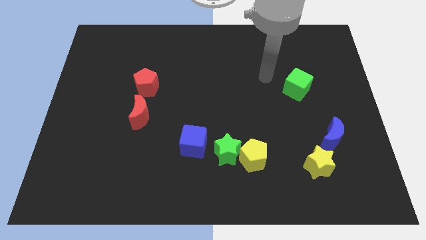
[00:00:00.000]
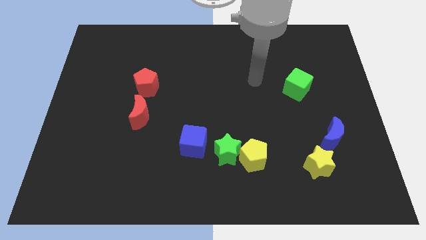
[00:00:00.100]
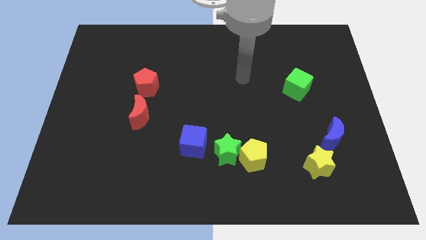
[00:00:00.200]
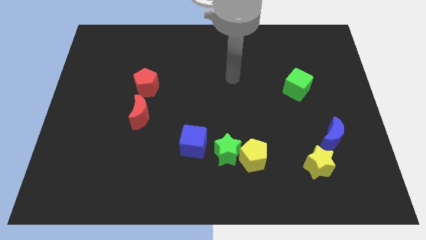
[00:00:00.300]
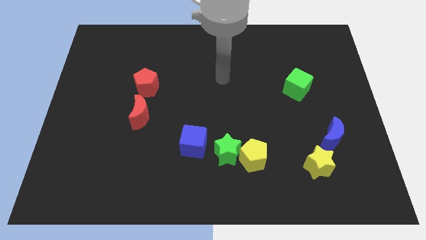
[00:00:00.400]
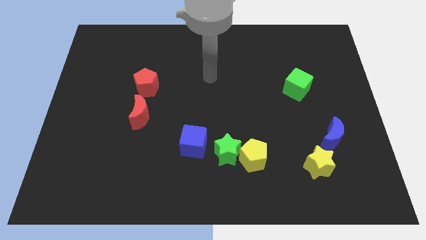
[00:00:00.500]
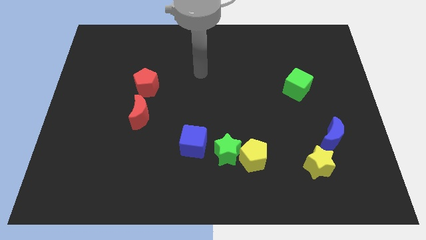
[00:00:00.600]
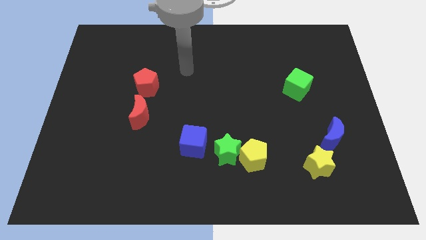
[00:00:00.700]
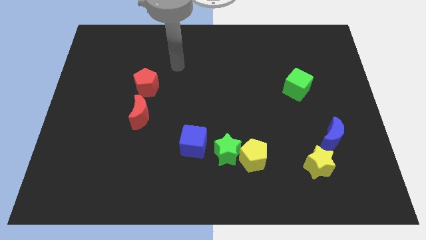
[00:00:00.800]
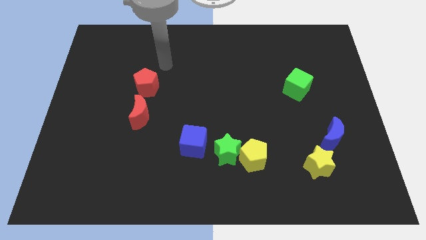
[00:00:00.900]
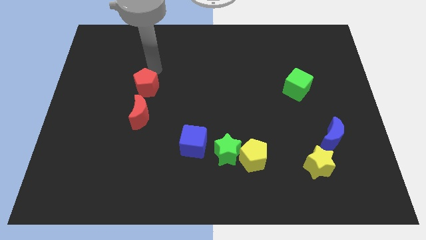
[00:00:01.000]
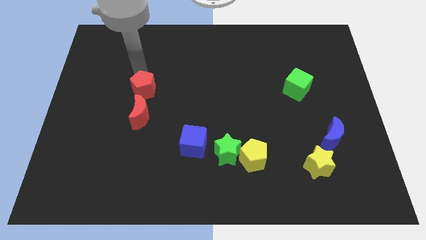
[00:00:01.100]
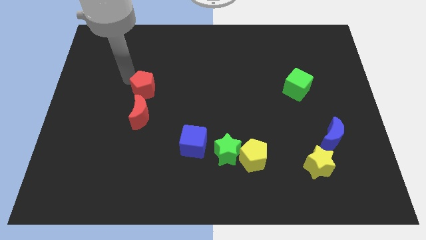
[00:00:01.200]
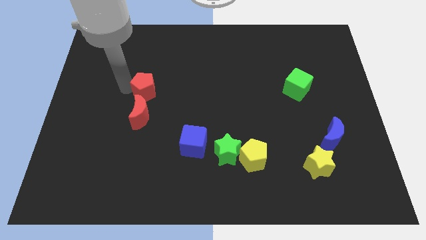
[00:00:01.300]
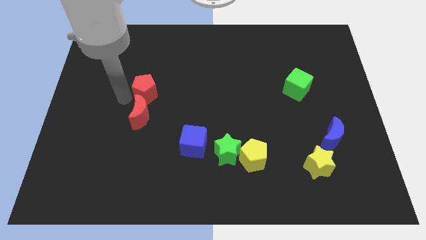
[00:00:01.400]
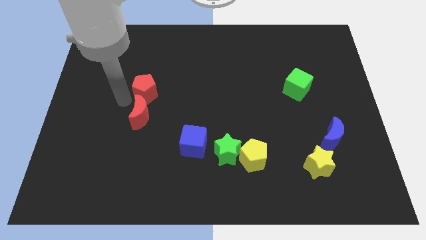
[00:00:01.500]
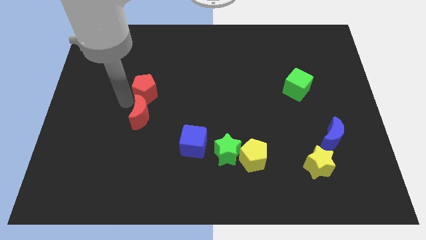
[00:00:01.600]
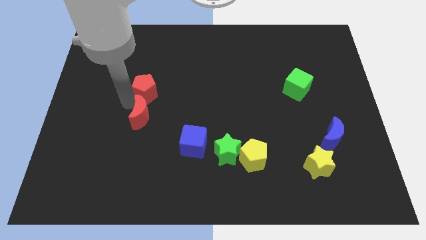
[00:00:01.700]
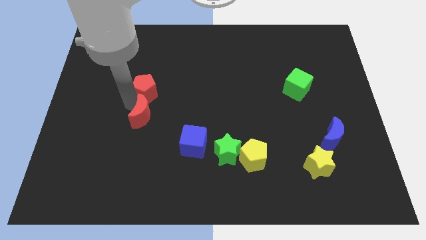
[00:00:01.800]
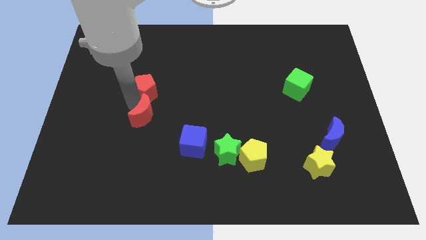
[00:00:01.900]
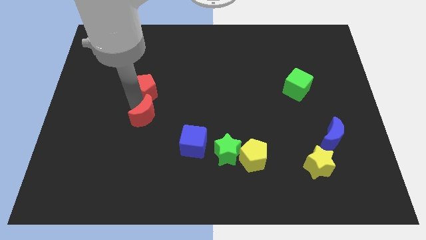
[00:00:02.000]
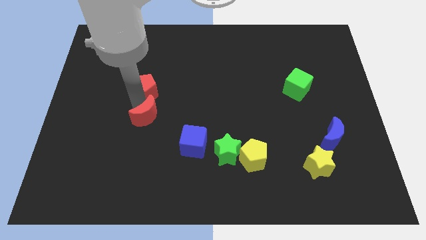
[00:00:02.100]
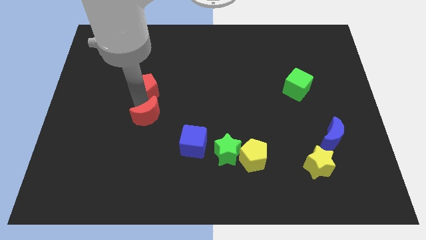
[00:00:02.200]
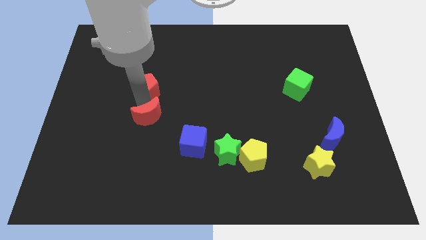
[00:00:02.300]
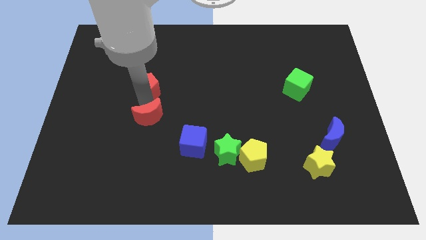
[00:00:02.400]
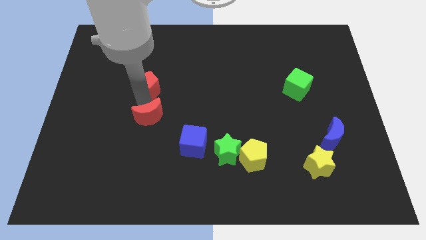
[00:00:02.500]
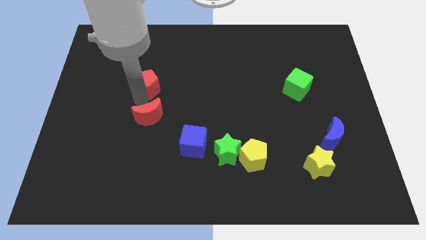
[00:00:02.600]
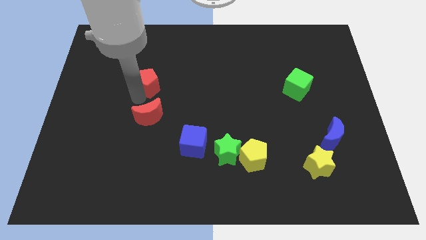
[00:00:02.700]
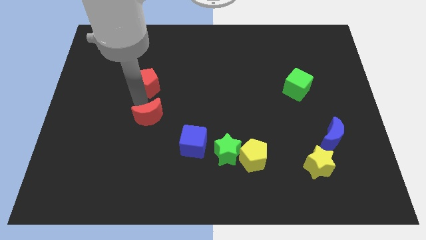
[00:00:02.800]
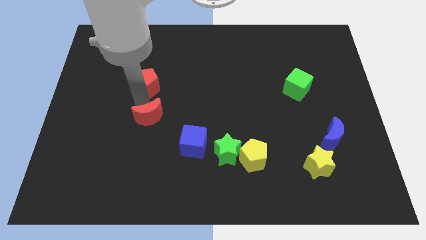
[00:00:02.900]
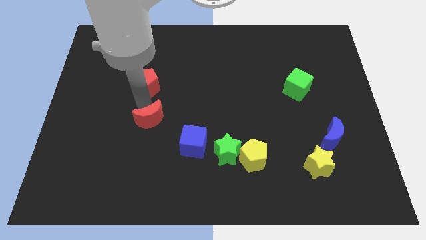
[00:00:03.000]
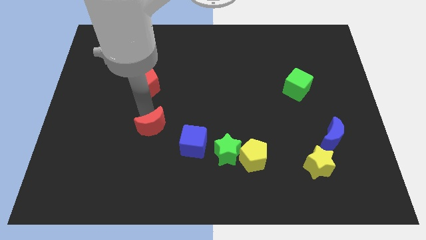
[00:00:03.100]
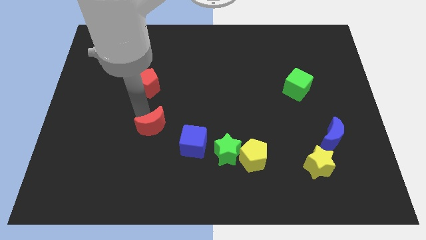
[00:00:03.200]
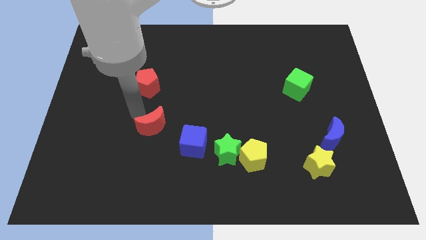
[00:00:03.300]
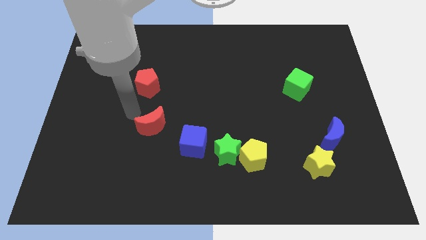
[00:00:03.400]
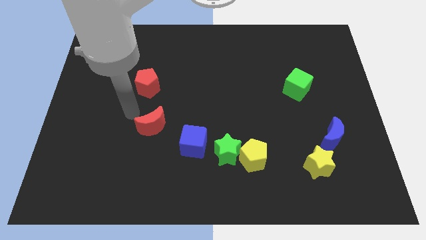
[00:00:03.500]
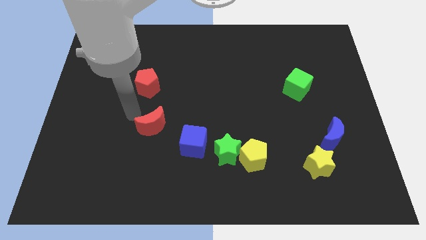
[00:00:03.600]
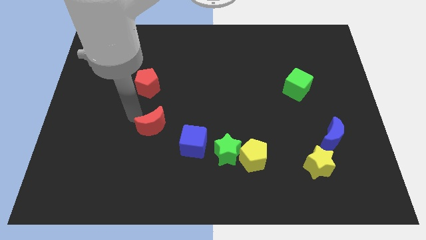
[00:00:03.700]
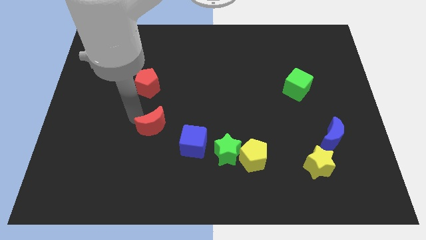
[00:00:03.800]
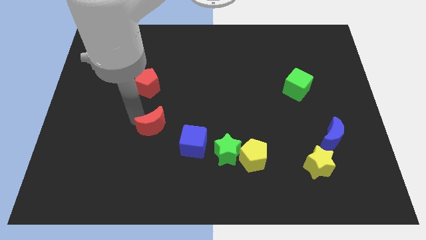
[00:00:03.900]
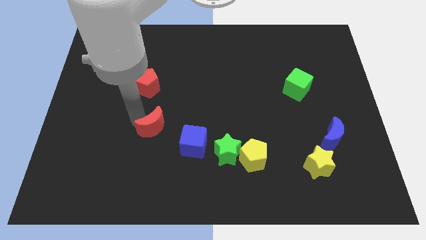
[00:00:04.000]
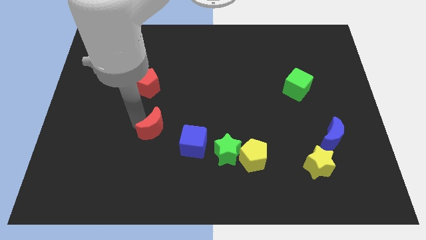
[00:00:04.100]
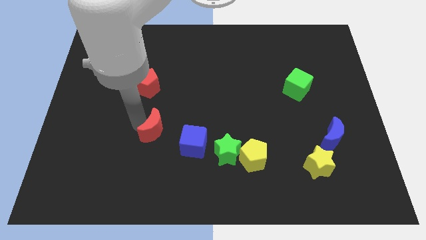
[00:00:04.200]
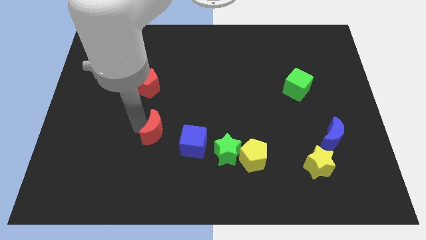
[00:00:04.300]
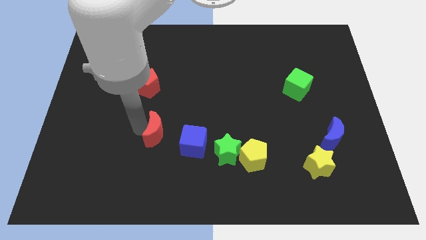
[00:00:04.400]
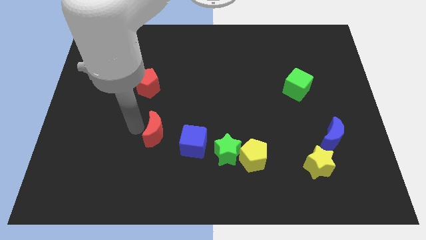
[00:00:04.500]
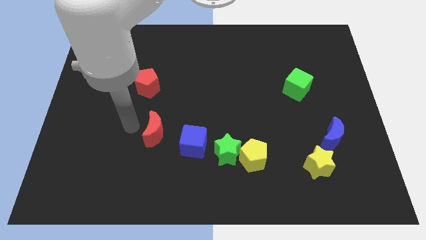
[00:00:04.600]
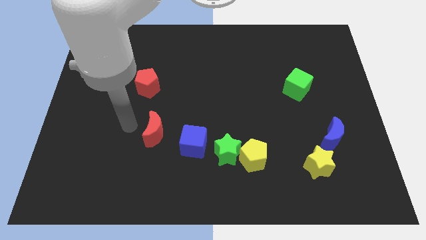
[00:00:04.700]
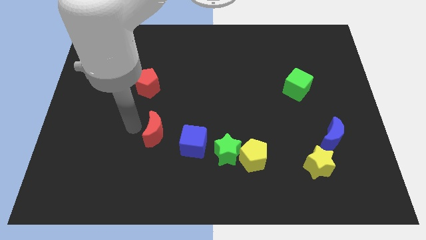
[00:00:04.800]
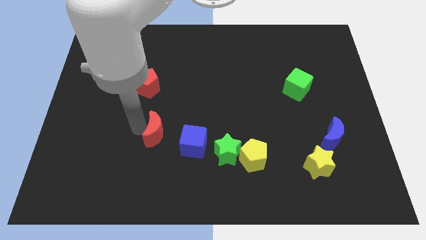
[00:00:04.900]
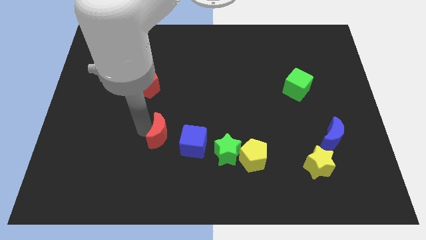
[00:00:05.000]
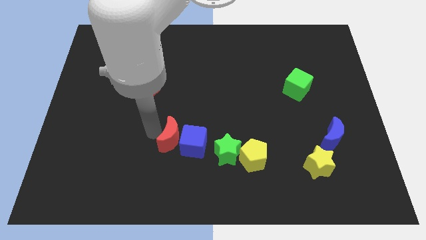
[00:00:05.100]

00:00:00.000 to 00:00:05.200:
push the red moon towards the blue cube

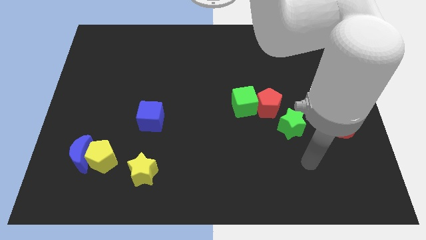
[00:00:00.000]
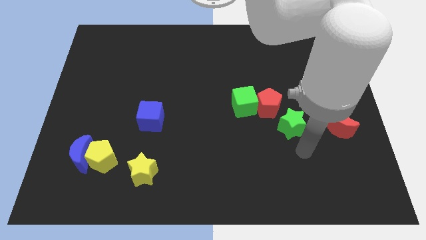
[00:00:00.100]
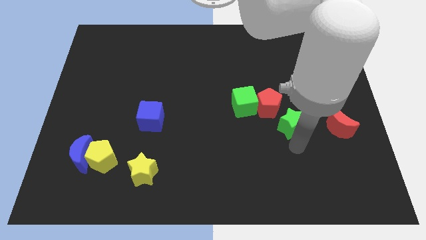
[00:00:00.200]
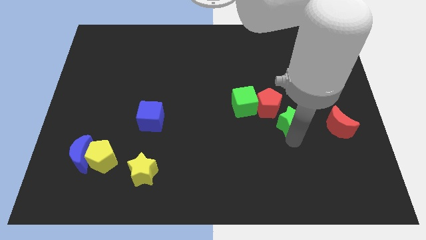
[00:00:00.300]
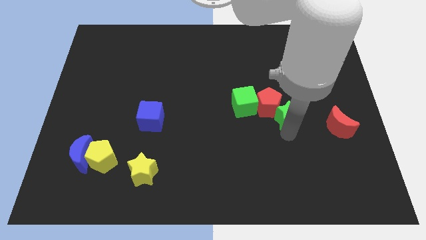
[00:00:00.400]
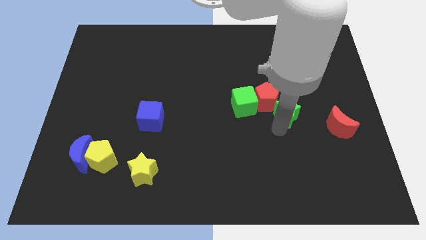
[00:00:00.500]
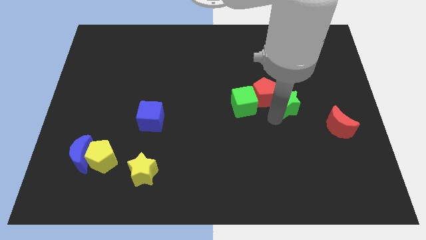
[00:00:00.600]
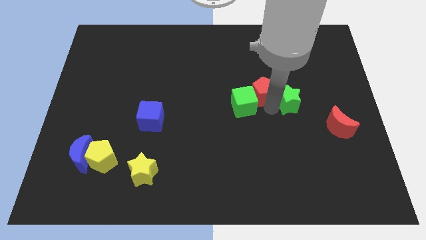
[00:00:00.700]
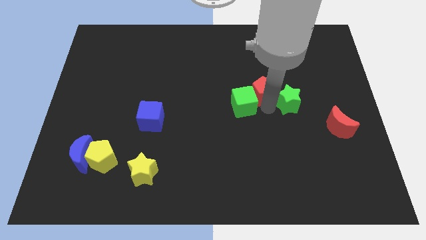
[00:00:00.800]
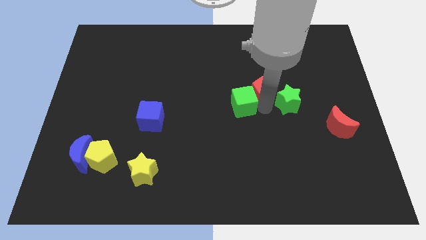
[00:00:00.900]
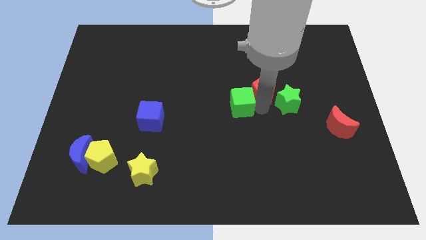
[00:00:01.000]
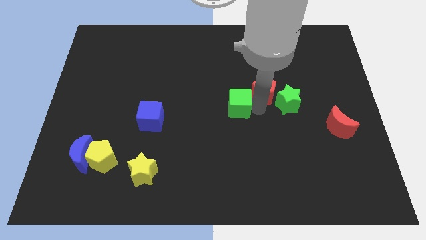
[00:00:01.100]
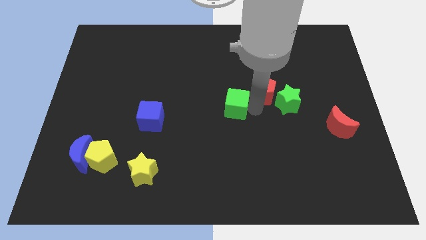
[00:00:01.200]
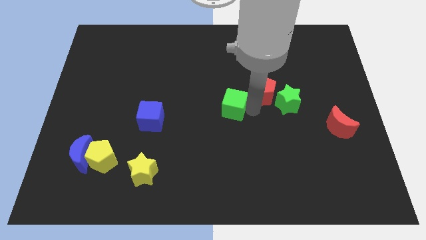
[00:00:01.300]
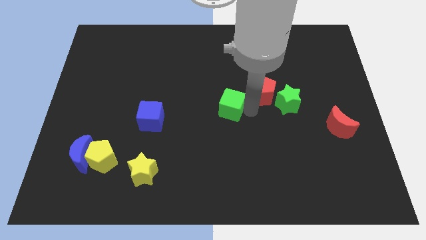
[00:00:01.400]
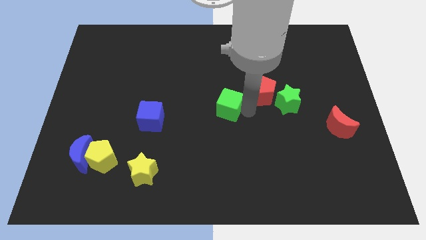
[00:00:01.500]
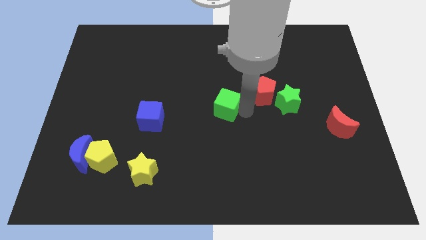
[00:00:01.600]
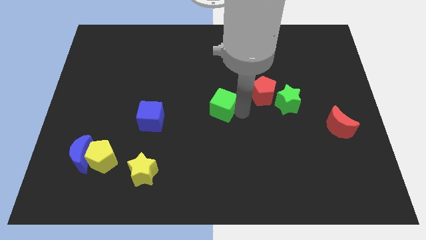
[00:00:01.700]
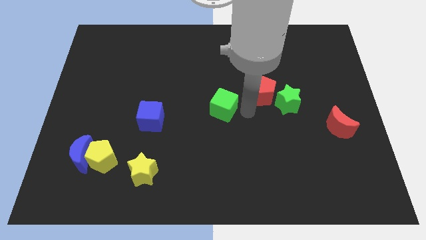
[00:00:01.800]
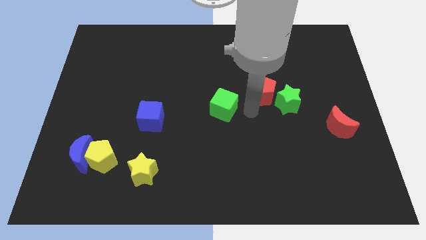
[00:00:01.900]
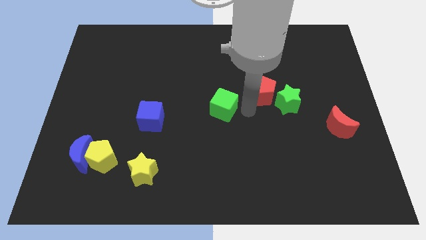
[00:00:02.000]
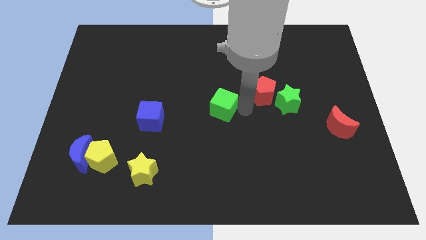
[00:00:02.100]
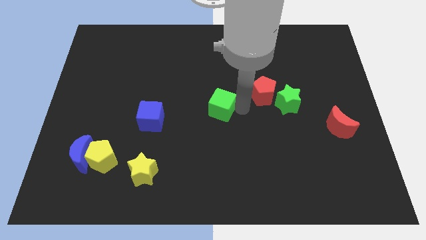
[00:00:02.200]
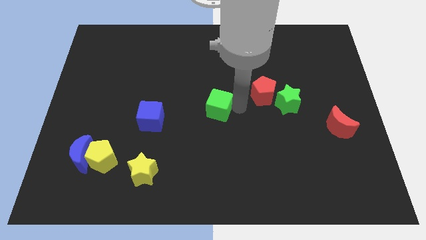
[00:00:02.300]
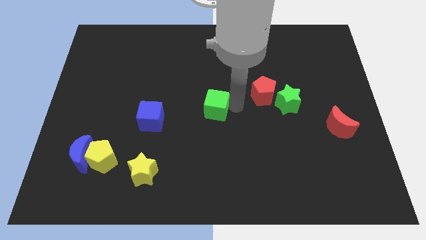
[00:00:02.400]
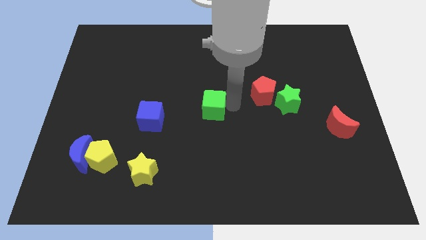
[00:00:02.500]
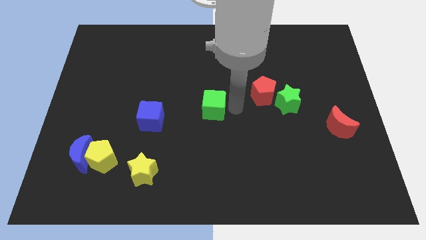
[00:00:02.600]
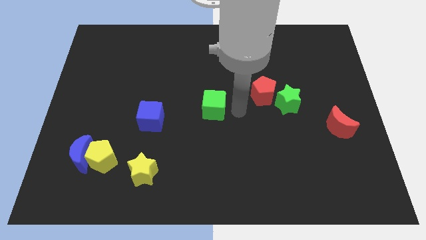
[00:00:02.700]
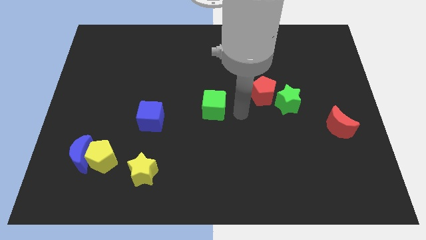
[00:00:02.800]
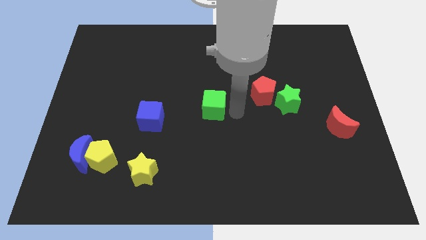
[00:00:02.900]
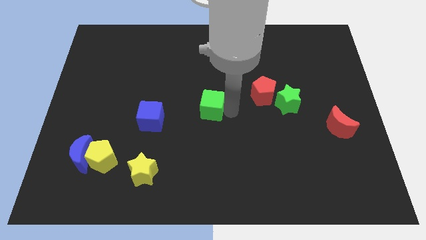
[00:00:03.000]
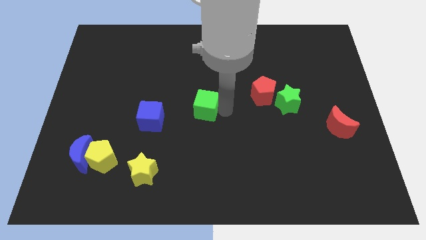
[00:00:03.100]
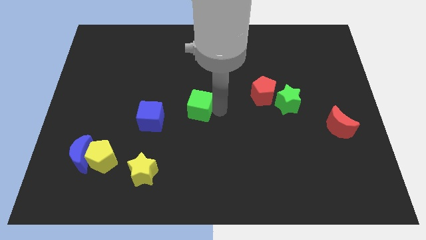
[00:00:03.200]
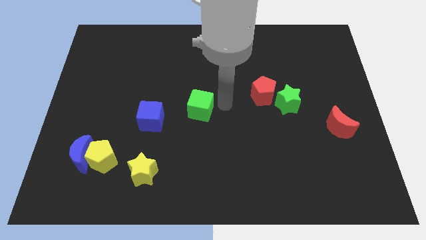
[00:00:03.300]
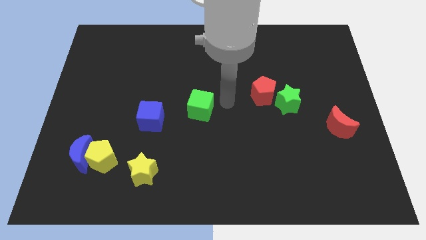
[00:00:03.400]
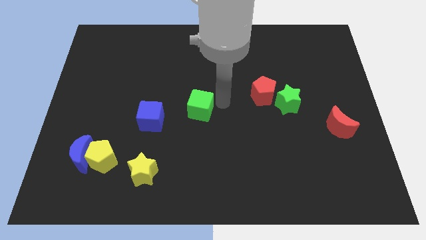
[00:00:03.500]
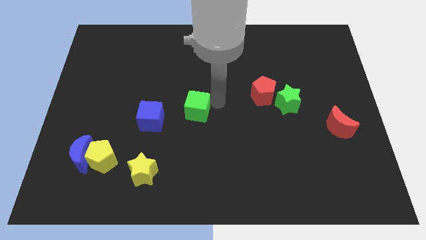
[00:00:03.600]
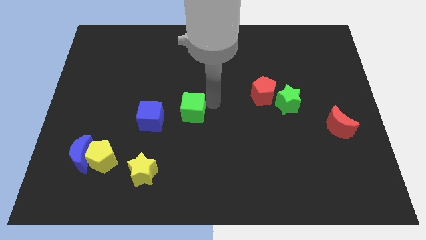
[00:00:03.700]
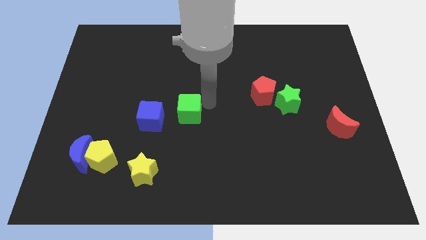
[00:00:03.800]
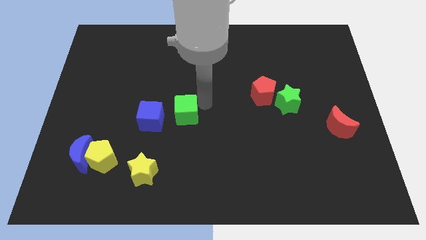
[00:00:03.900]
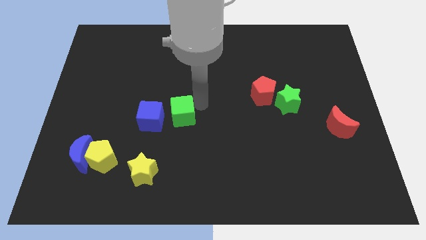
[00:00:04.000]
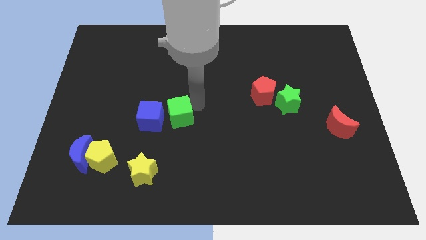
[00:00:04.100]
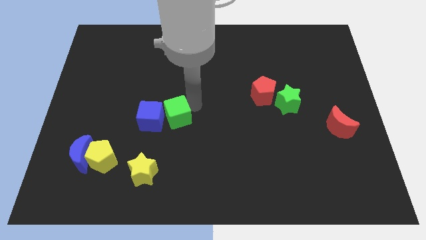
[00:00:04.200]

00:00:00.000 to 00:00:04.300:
slide the green cube next to the blue cube
